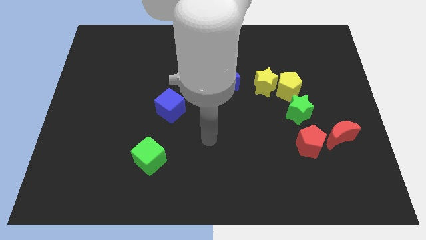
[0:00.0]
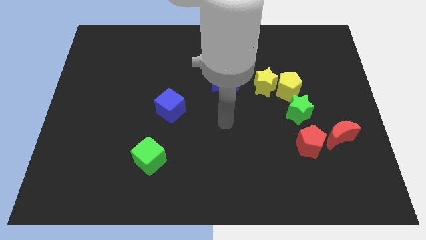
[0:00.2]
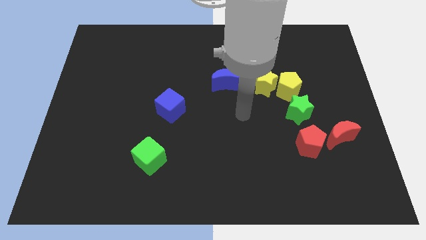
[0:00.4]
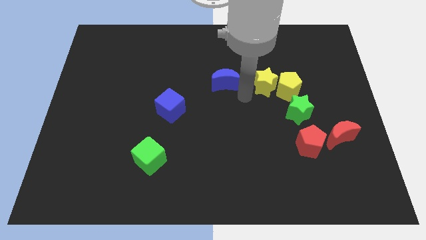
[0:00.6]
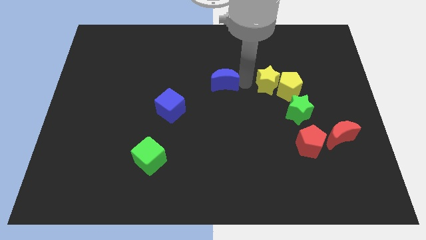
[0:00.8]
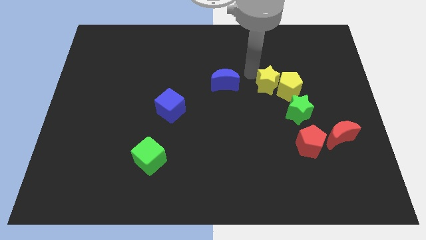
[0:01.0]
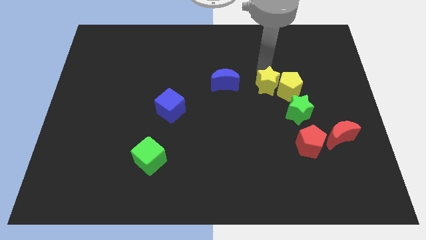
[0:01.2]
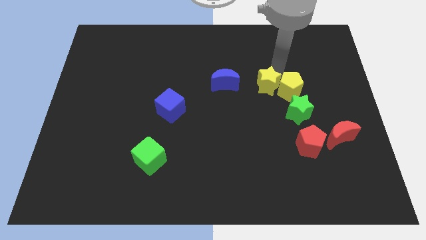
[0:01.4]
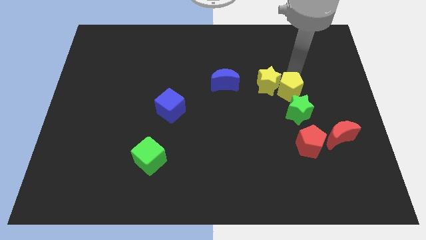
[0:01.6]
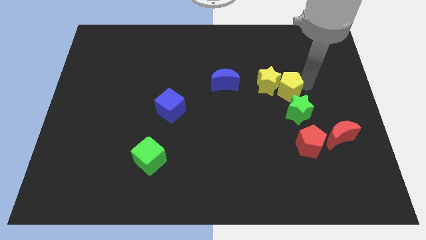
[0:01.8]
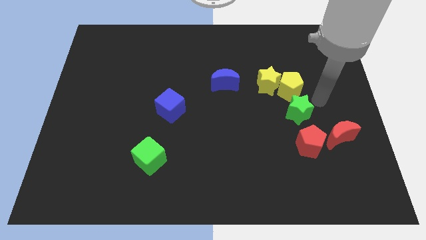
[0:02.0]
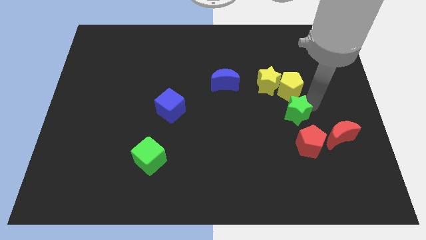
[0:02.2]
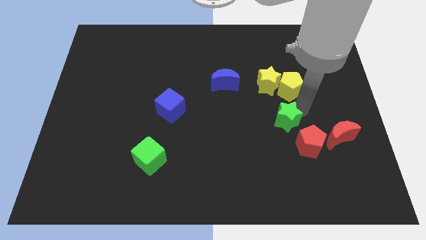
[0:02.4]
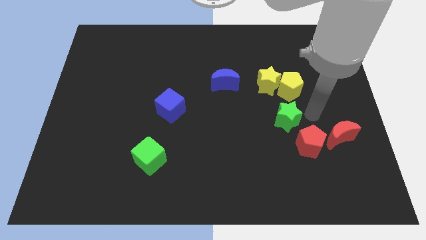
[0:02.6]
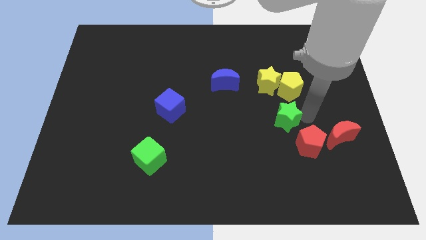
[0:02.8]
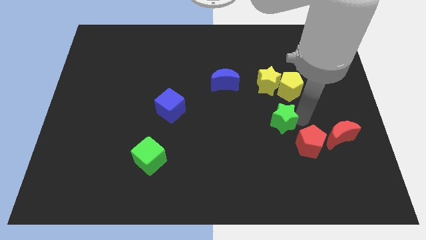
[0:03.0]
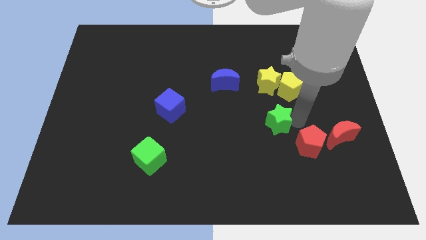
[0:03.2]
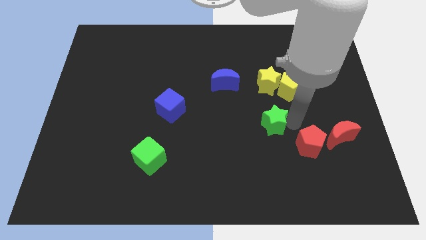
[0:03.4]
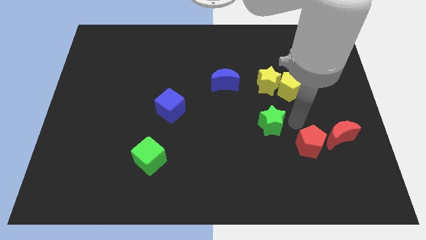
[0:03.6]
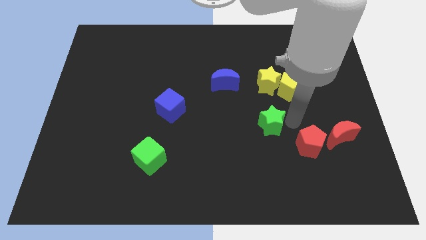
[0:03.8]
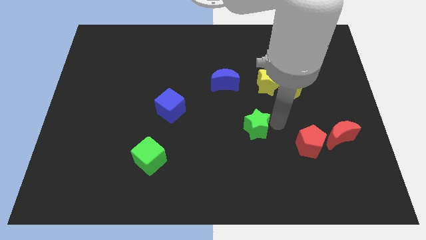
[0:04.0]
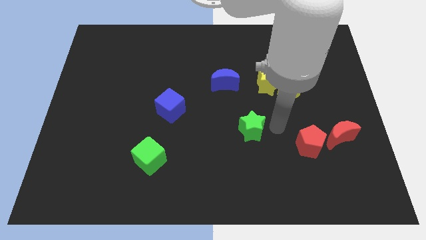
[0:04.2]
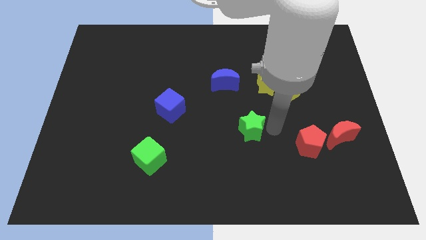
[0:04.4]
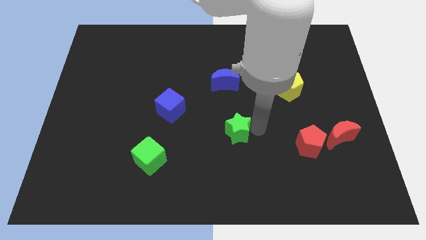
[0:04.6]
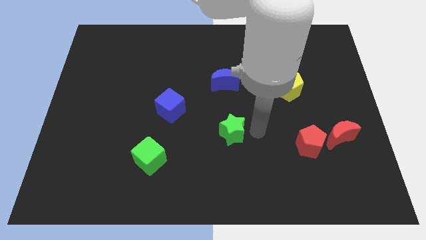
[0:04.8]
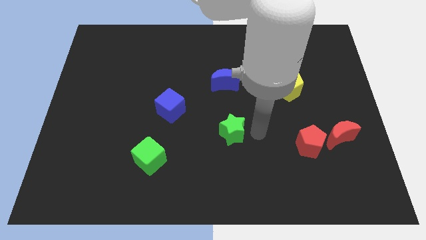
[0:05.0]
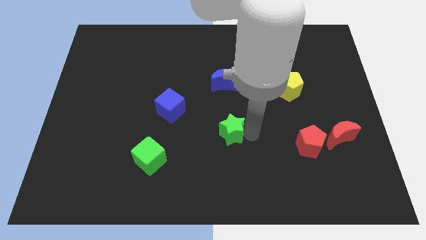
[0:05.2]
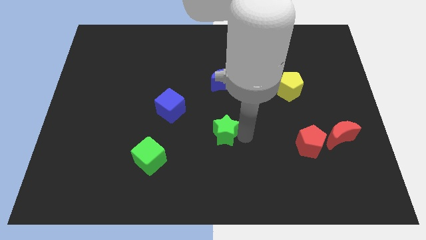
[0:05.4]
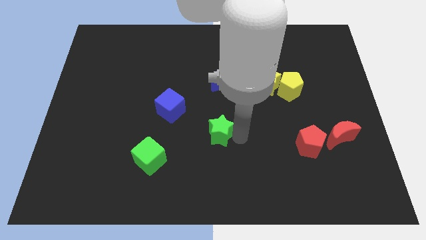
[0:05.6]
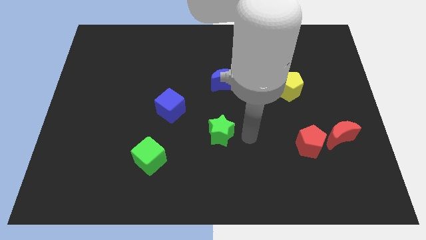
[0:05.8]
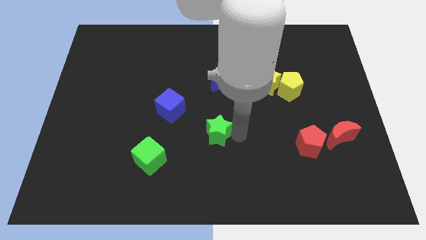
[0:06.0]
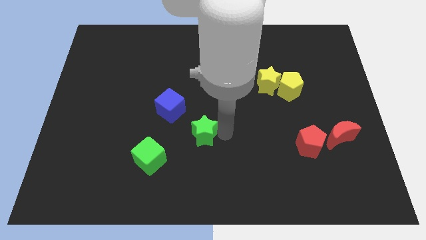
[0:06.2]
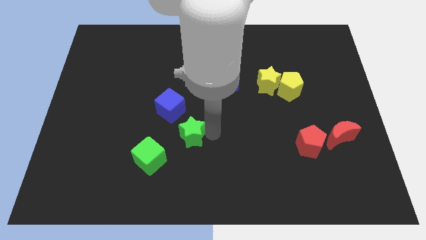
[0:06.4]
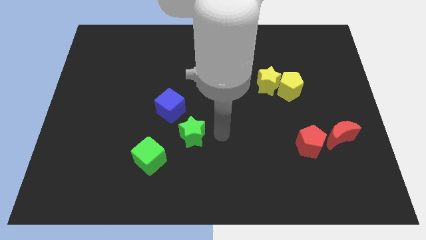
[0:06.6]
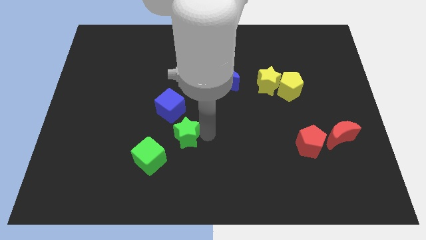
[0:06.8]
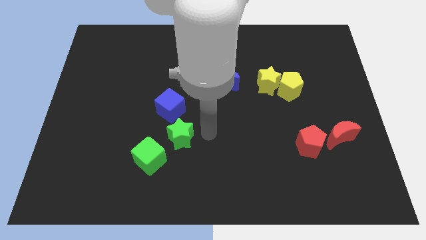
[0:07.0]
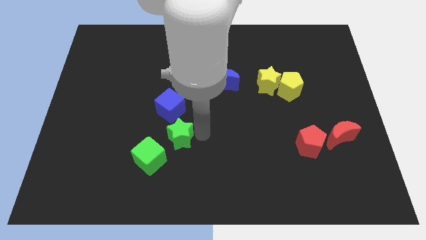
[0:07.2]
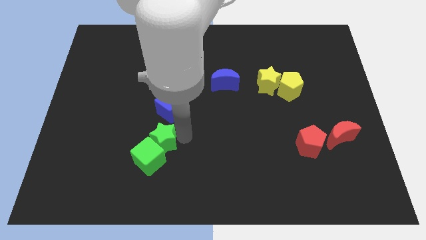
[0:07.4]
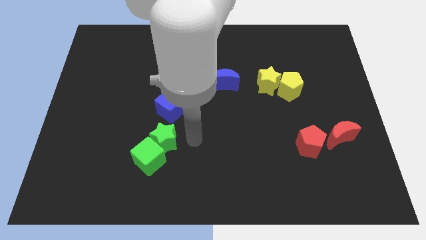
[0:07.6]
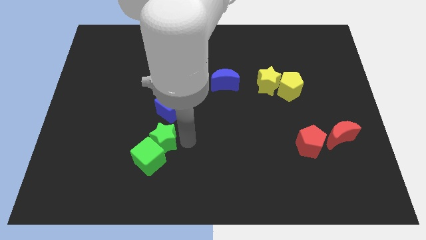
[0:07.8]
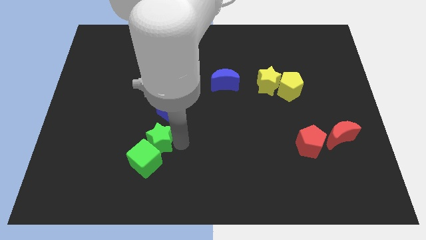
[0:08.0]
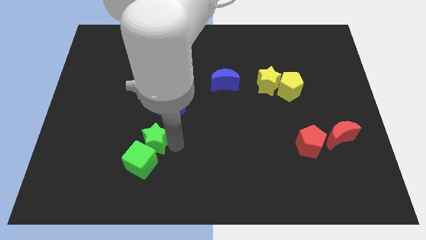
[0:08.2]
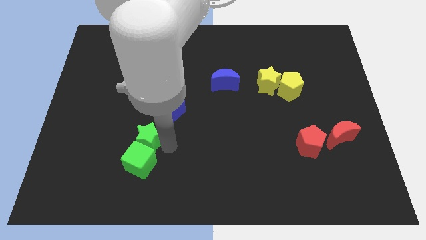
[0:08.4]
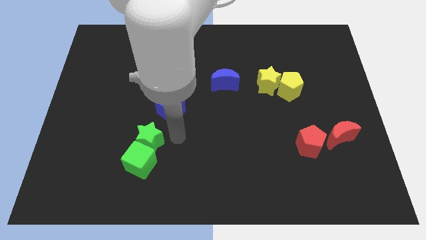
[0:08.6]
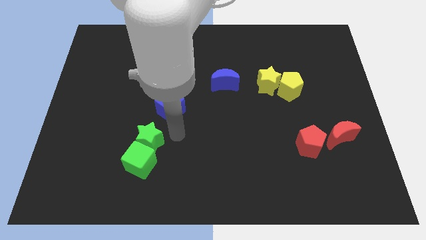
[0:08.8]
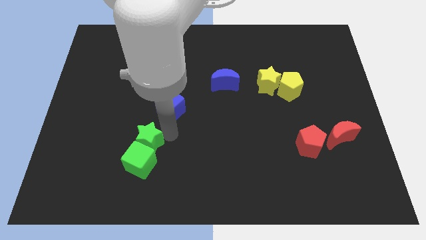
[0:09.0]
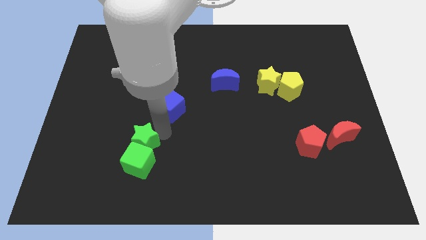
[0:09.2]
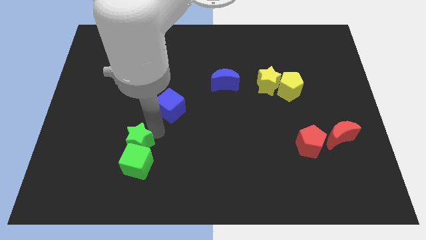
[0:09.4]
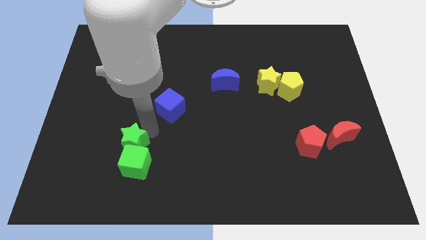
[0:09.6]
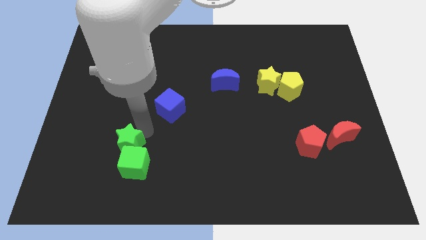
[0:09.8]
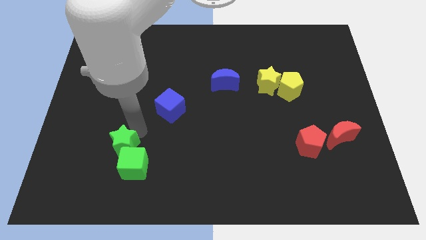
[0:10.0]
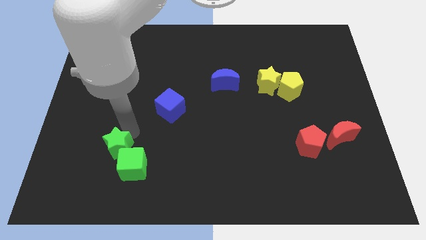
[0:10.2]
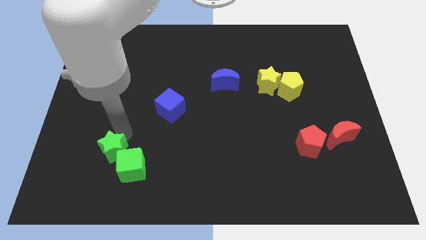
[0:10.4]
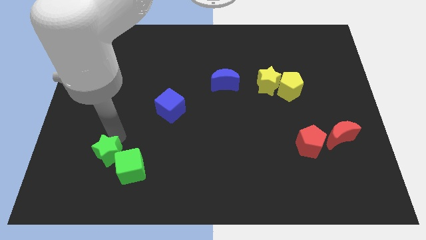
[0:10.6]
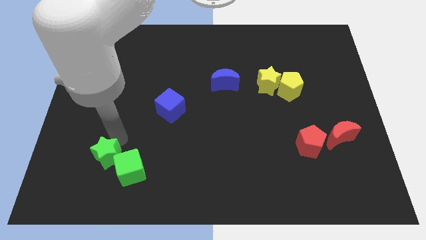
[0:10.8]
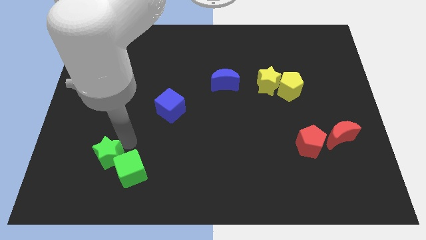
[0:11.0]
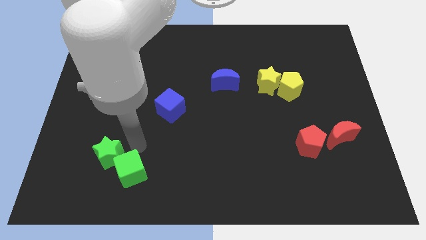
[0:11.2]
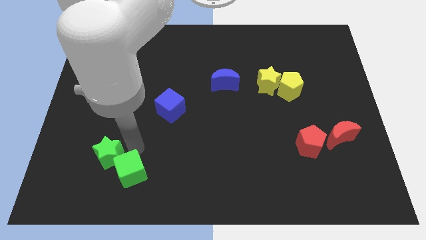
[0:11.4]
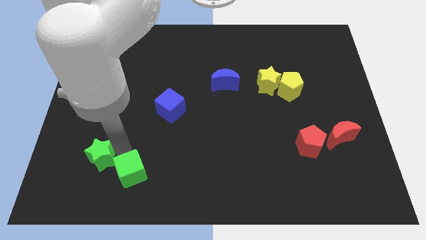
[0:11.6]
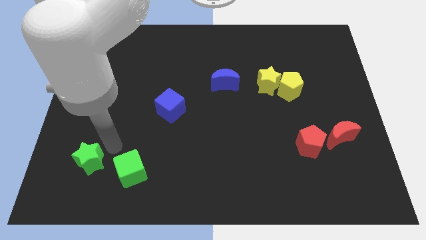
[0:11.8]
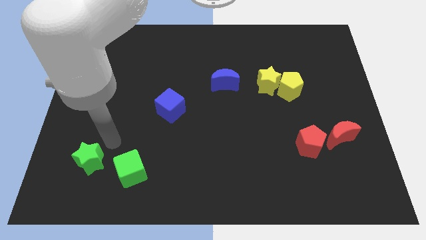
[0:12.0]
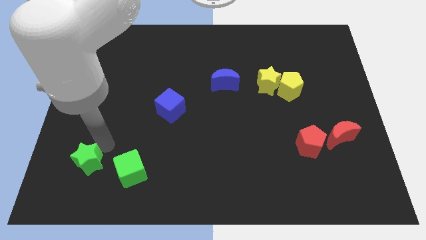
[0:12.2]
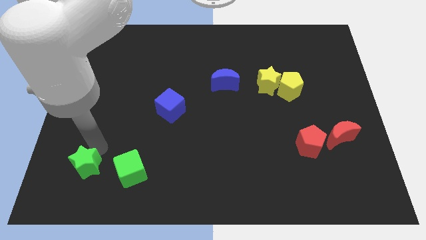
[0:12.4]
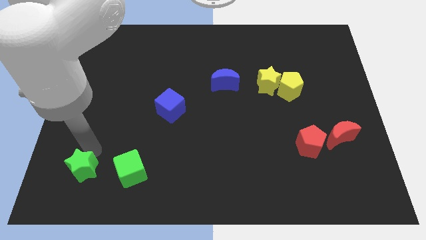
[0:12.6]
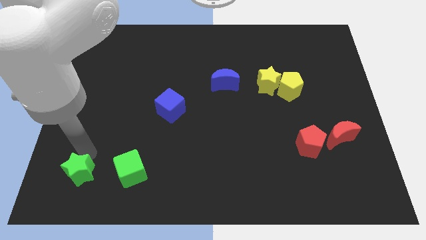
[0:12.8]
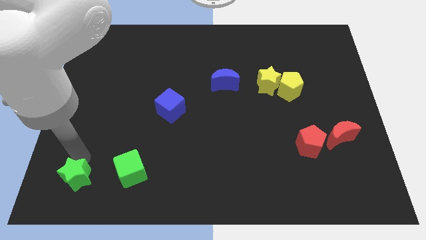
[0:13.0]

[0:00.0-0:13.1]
push the green star to the bottom left of the board
